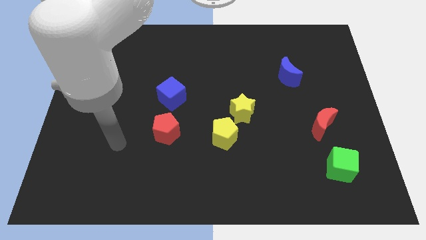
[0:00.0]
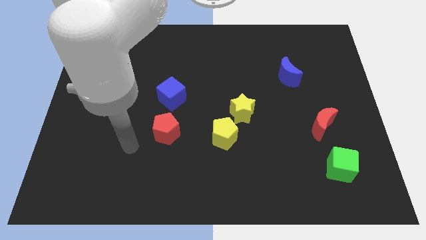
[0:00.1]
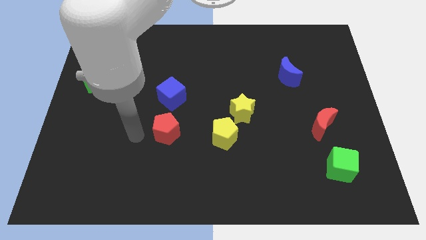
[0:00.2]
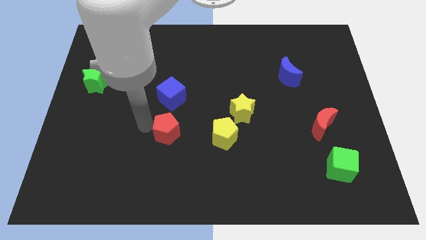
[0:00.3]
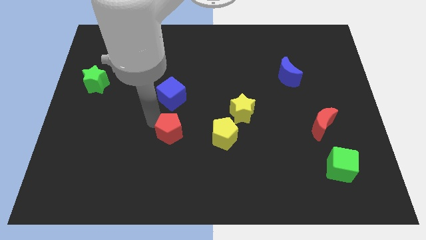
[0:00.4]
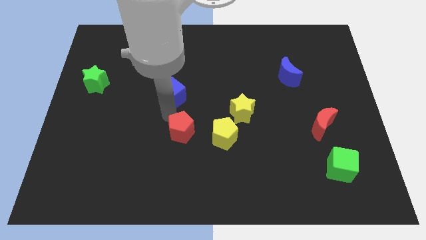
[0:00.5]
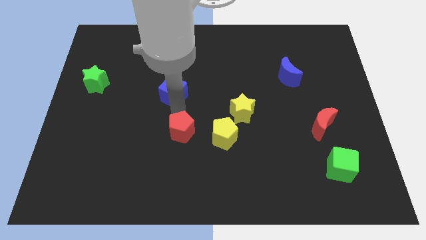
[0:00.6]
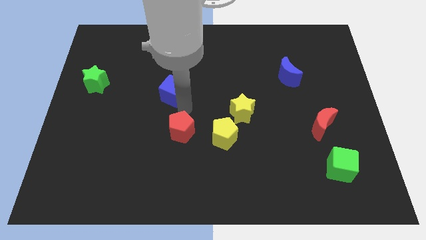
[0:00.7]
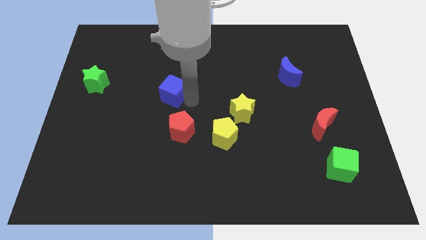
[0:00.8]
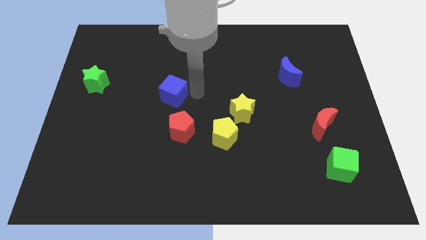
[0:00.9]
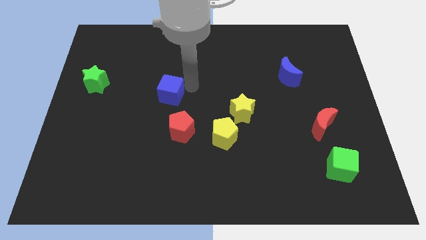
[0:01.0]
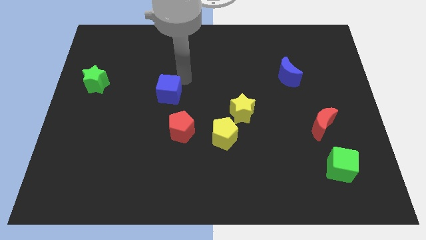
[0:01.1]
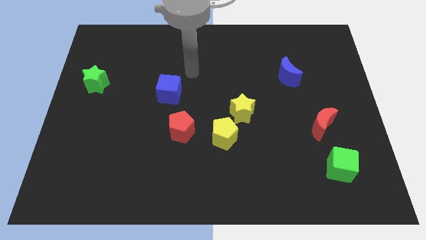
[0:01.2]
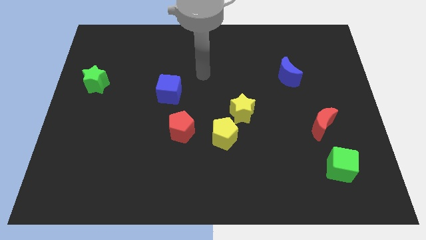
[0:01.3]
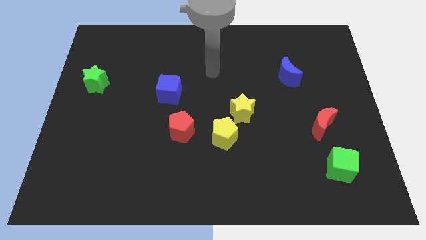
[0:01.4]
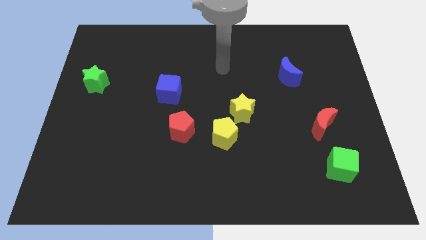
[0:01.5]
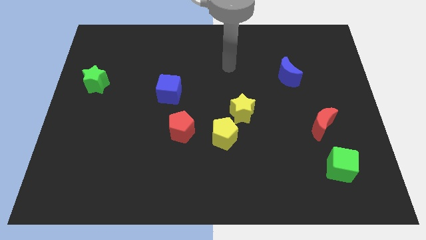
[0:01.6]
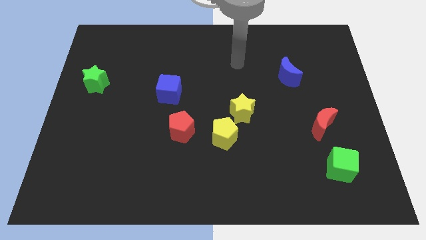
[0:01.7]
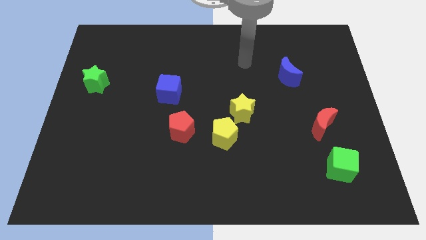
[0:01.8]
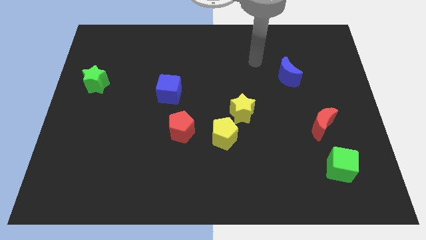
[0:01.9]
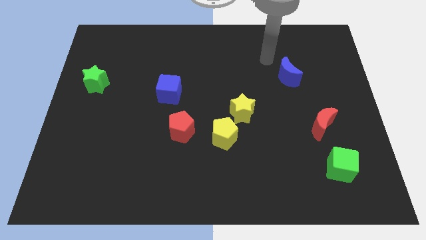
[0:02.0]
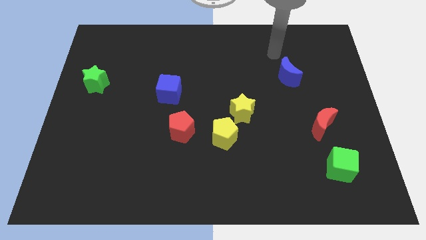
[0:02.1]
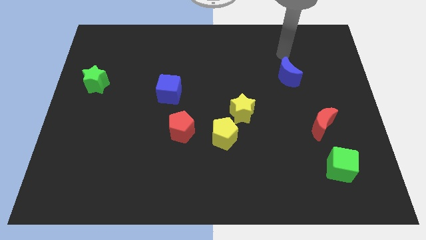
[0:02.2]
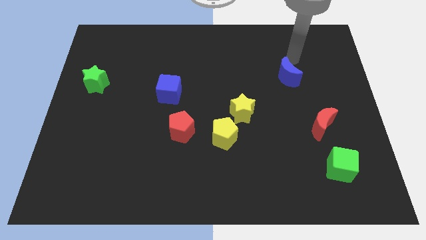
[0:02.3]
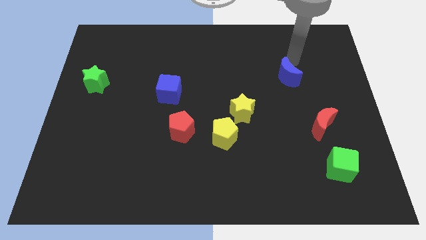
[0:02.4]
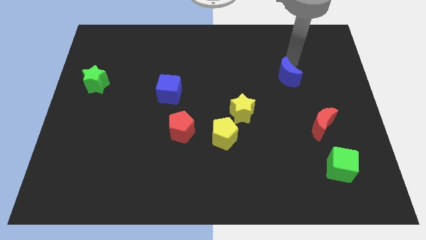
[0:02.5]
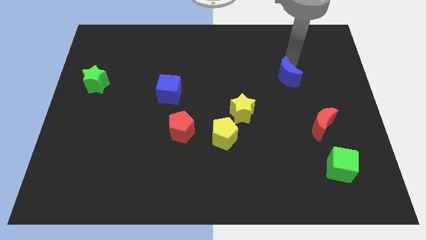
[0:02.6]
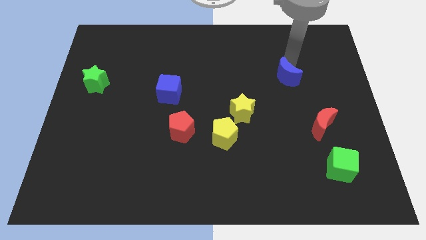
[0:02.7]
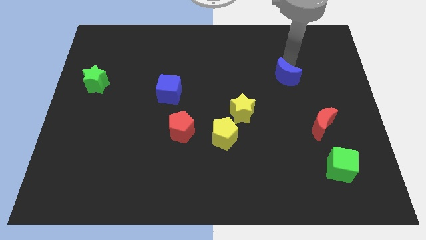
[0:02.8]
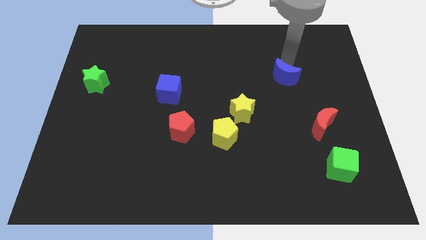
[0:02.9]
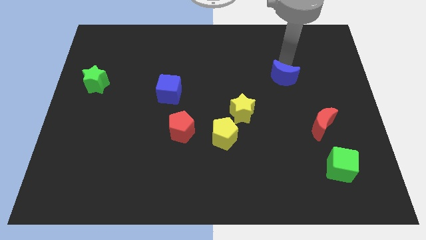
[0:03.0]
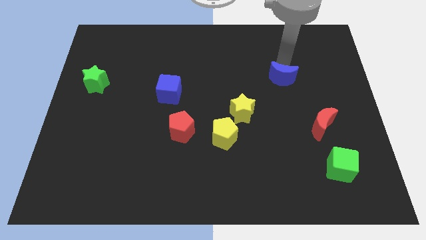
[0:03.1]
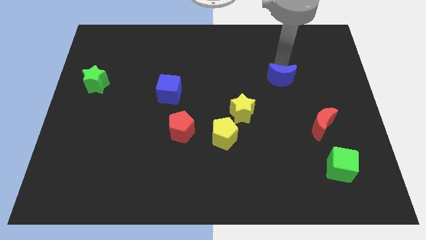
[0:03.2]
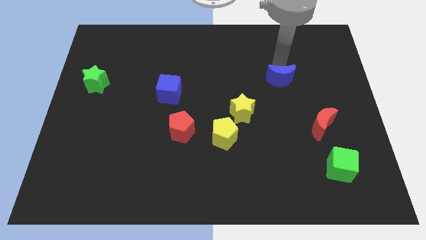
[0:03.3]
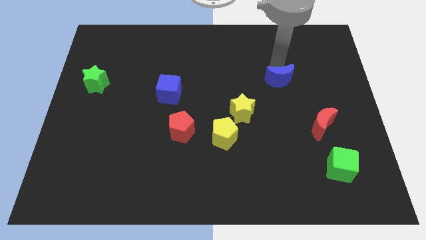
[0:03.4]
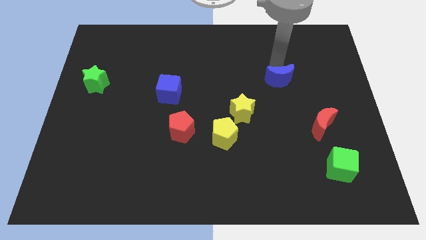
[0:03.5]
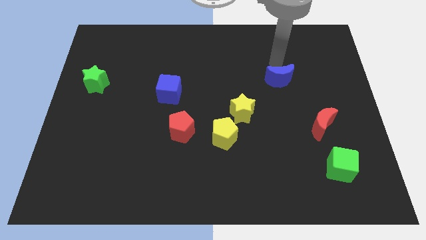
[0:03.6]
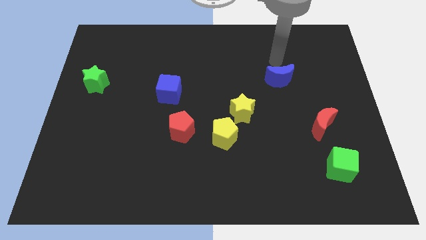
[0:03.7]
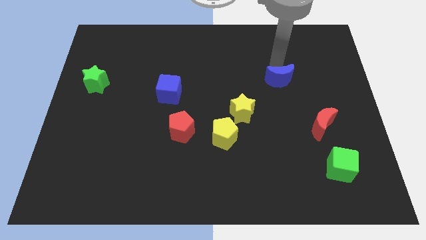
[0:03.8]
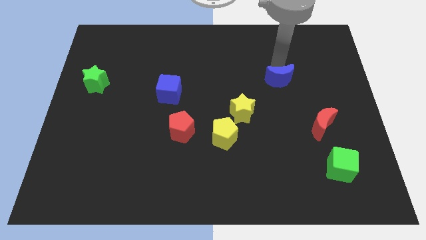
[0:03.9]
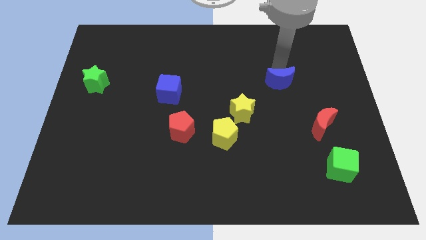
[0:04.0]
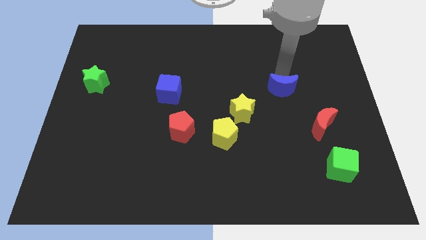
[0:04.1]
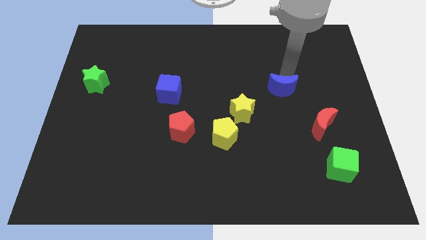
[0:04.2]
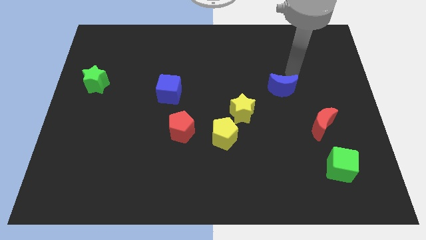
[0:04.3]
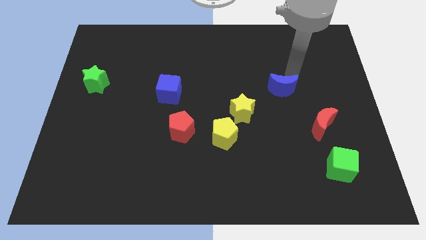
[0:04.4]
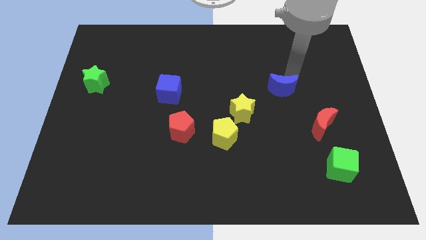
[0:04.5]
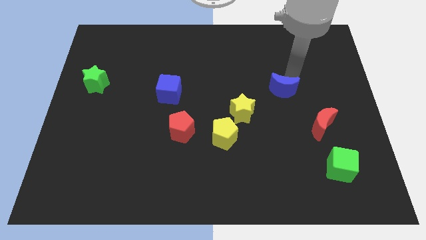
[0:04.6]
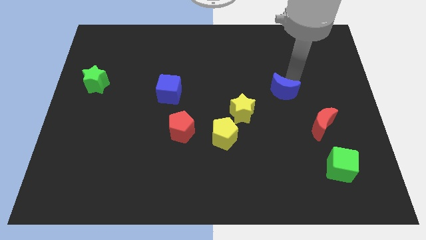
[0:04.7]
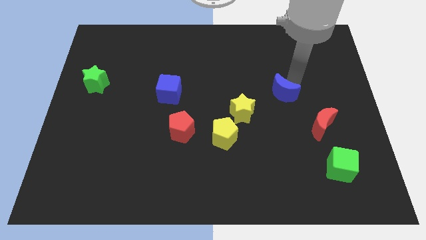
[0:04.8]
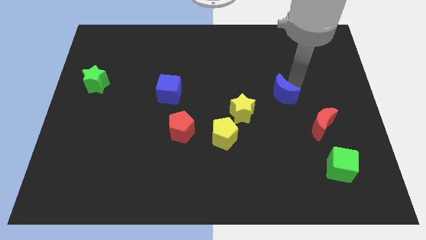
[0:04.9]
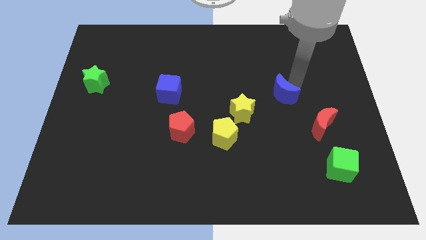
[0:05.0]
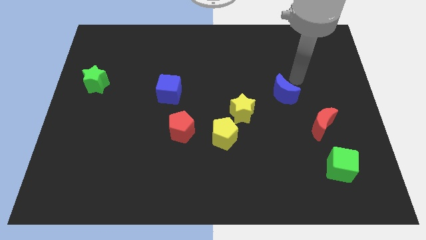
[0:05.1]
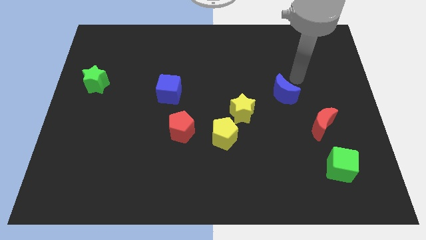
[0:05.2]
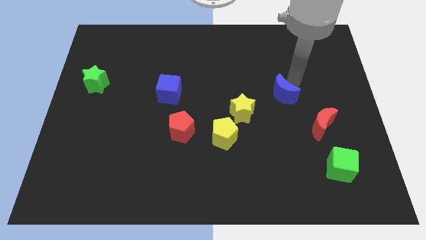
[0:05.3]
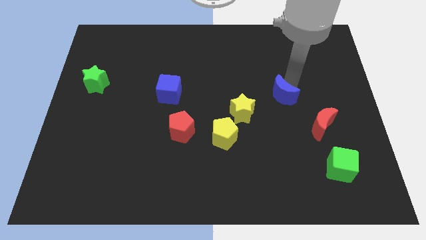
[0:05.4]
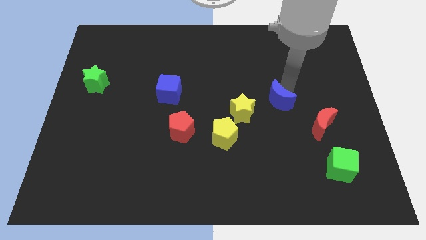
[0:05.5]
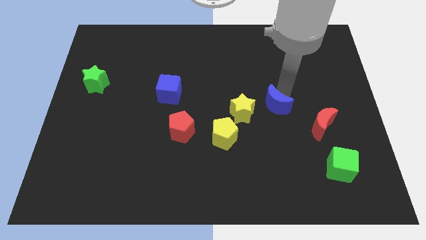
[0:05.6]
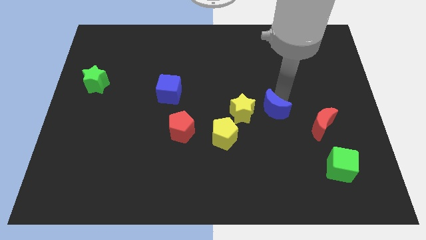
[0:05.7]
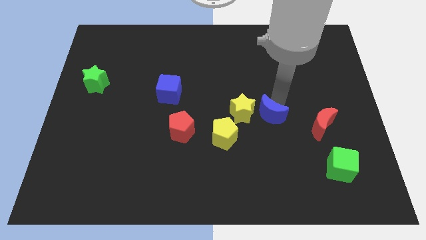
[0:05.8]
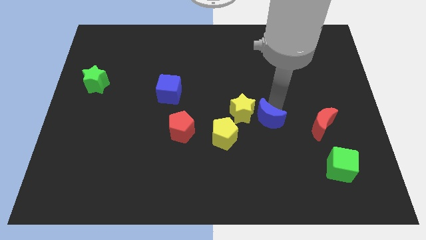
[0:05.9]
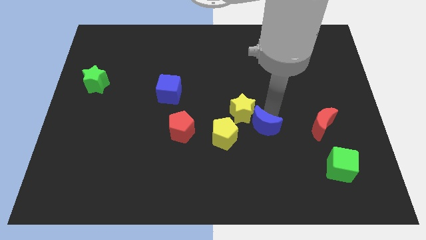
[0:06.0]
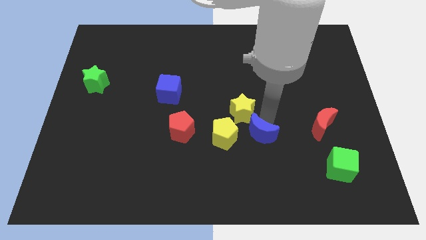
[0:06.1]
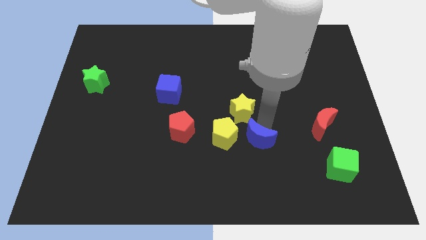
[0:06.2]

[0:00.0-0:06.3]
slide the blue moon to the bottom right of the yellow pentagon
